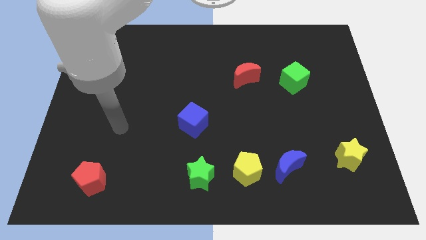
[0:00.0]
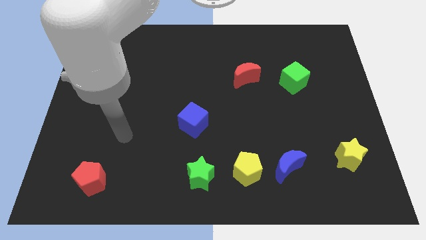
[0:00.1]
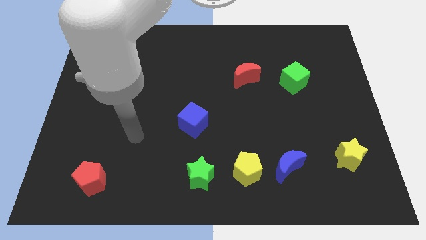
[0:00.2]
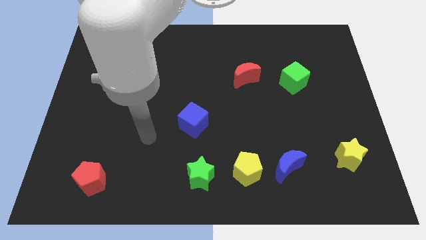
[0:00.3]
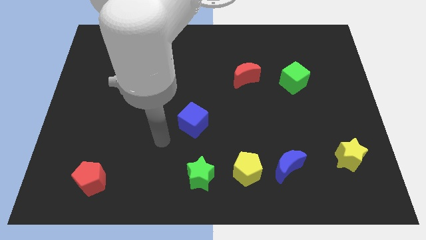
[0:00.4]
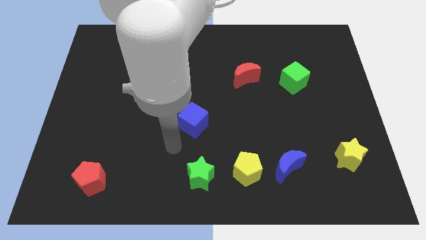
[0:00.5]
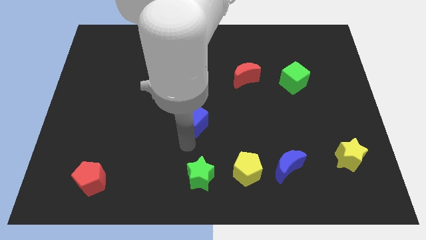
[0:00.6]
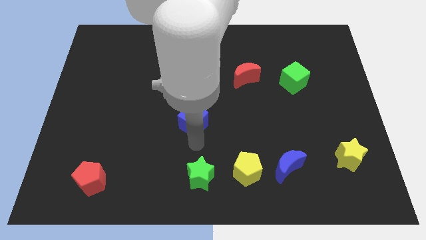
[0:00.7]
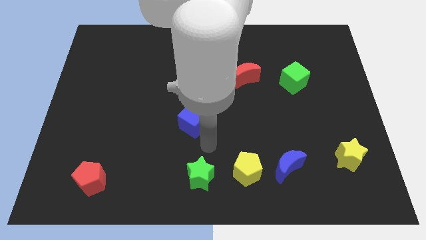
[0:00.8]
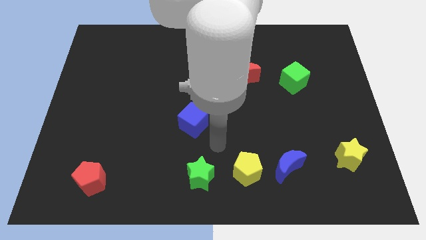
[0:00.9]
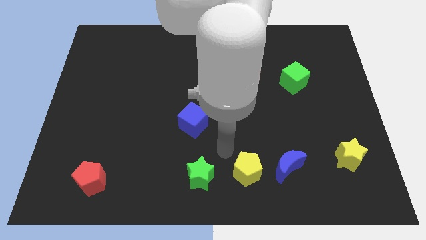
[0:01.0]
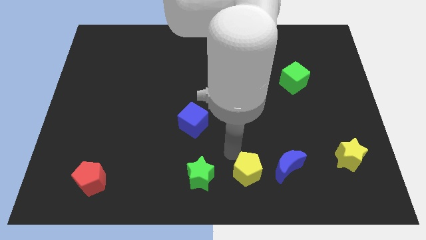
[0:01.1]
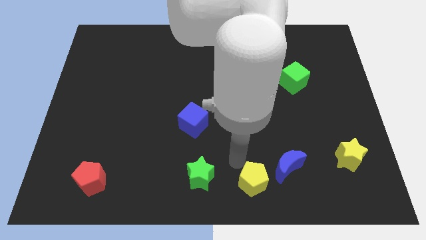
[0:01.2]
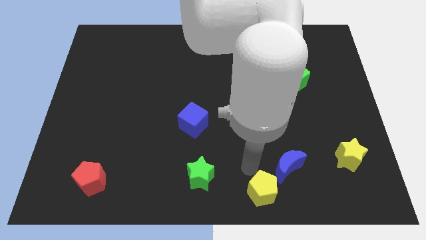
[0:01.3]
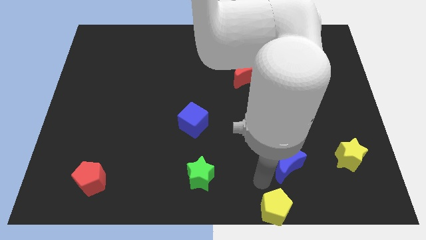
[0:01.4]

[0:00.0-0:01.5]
pull the blue moon apart from the yellow pentagon

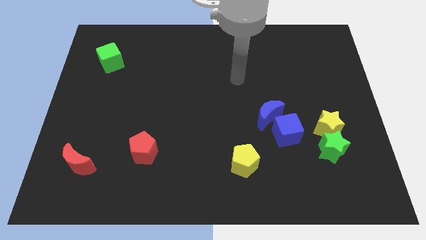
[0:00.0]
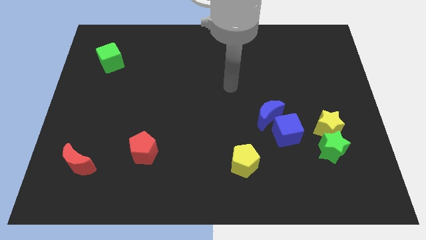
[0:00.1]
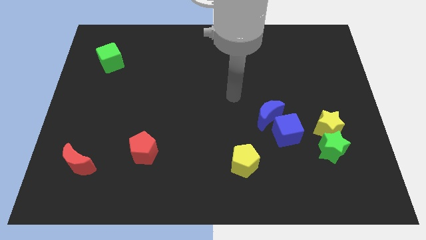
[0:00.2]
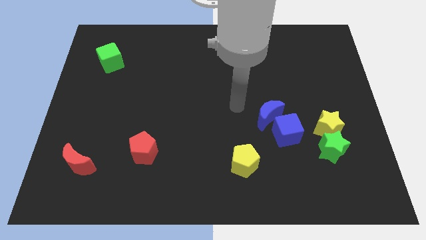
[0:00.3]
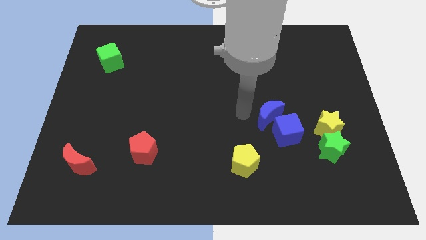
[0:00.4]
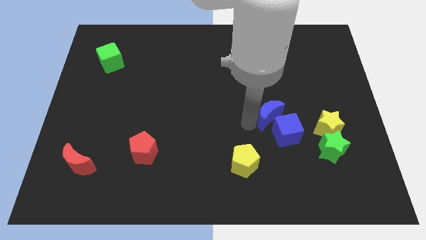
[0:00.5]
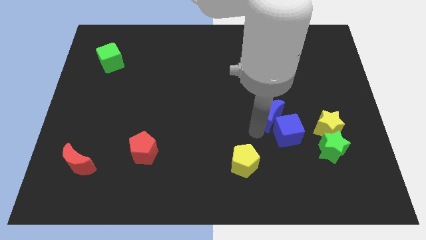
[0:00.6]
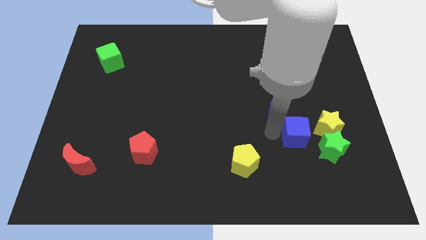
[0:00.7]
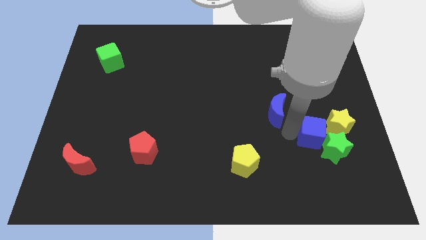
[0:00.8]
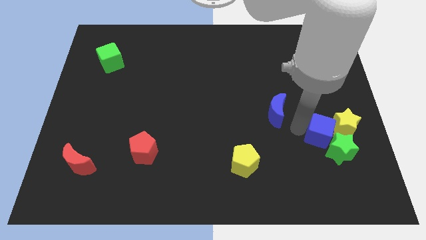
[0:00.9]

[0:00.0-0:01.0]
separate the blue moon from the blue cube

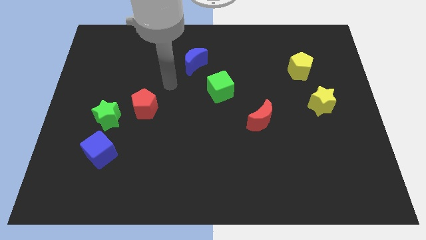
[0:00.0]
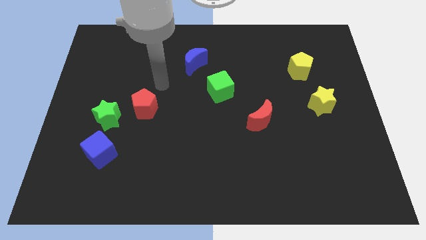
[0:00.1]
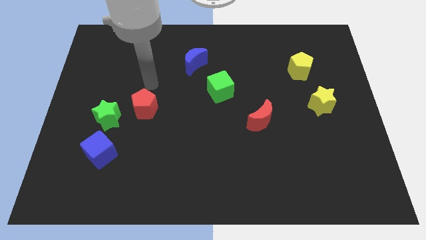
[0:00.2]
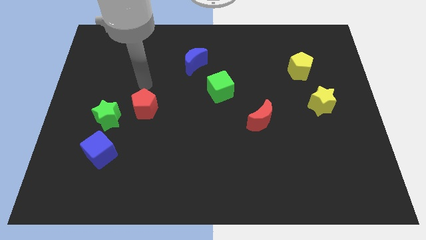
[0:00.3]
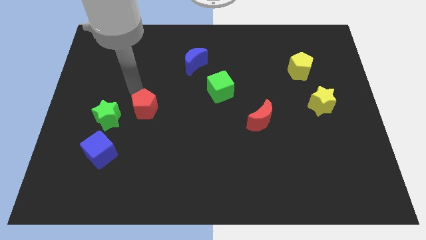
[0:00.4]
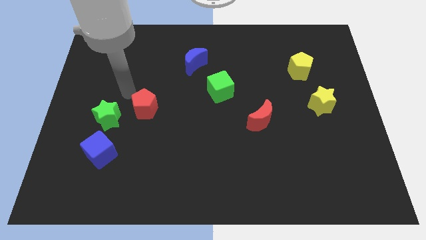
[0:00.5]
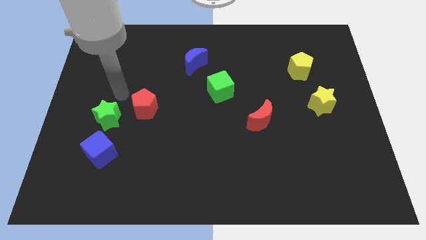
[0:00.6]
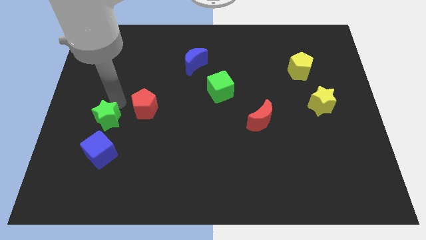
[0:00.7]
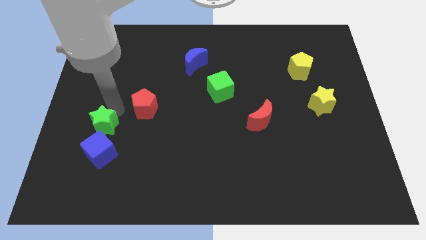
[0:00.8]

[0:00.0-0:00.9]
separate the red pentagon from the green star

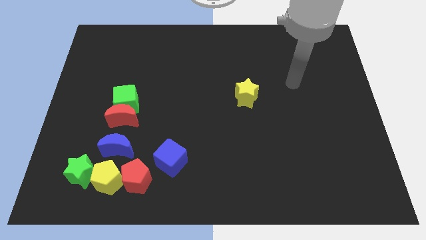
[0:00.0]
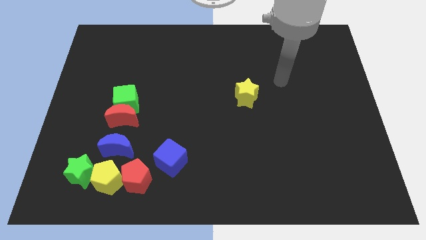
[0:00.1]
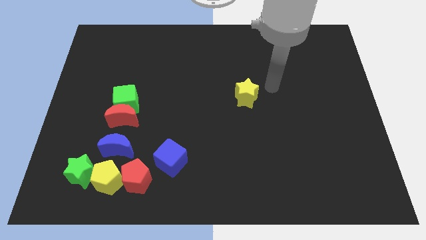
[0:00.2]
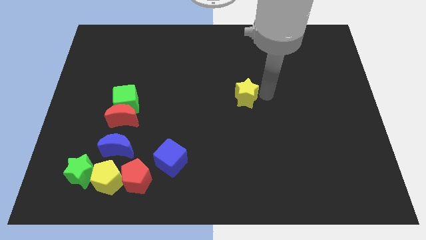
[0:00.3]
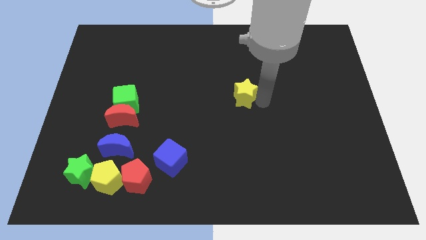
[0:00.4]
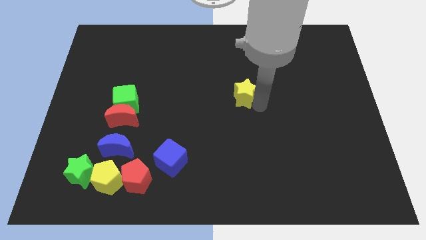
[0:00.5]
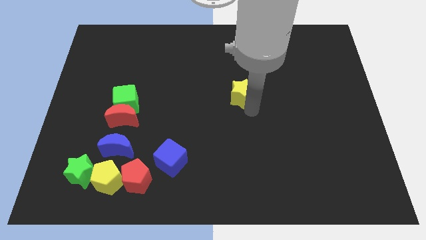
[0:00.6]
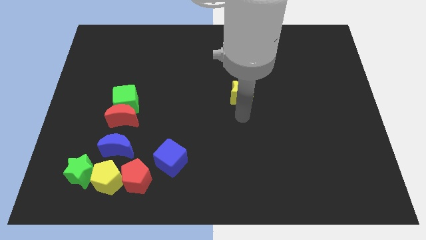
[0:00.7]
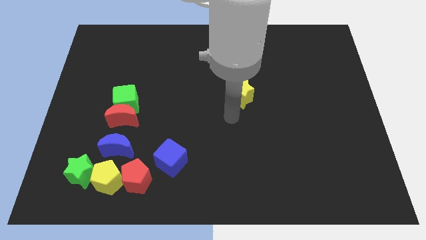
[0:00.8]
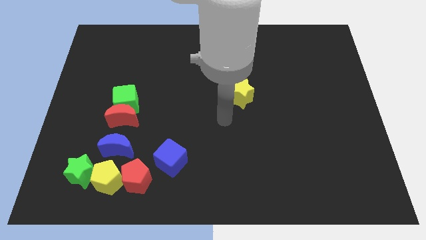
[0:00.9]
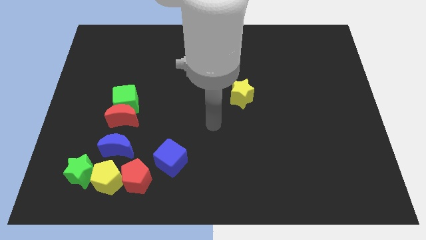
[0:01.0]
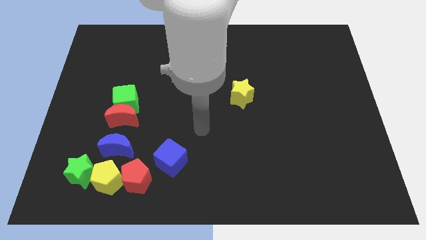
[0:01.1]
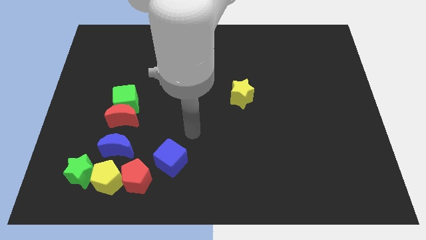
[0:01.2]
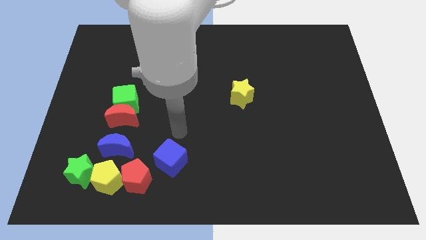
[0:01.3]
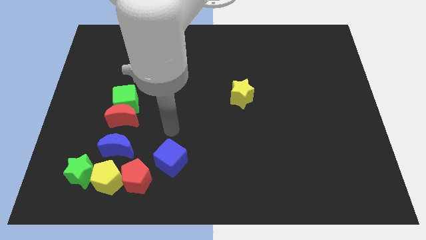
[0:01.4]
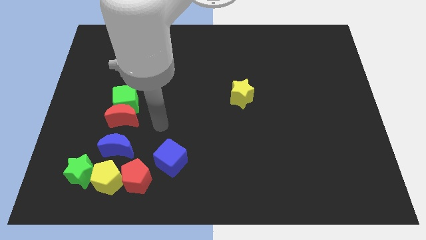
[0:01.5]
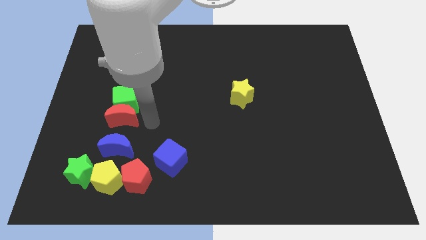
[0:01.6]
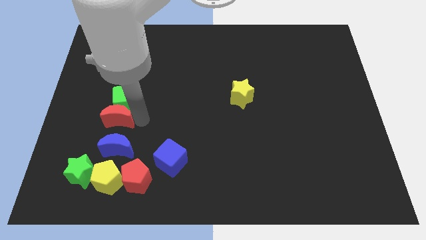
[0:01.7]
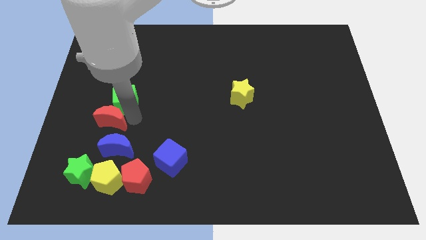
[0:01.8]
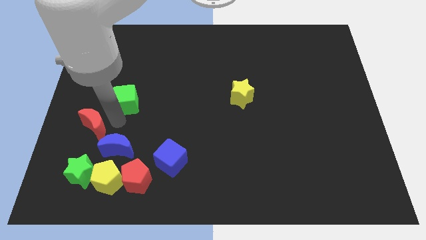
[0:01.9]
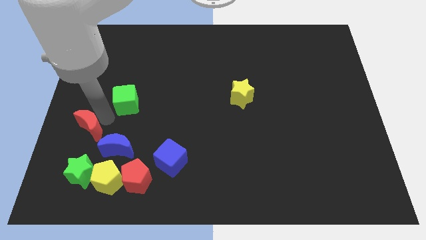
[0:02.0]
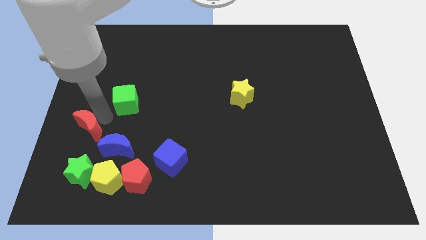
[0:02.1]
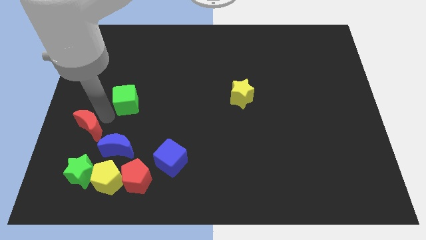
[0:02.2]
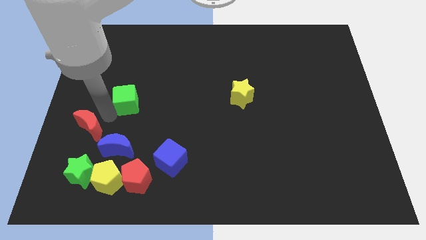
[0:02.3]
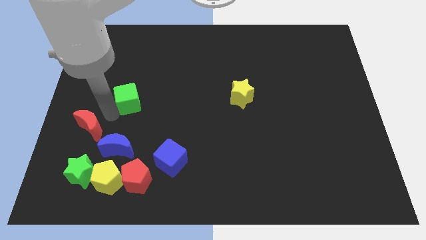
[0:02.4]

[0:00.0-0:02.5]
separate the green cube from the red moon

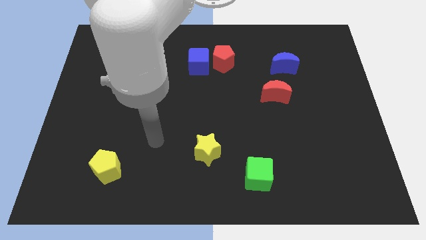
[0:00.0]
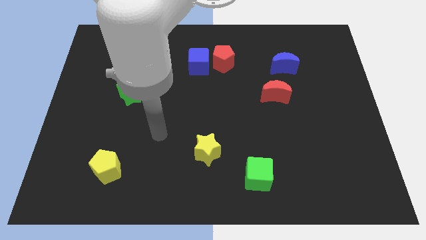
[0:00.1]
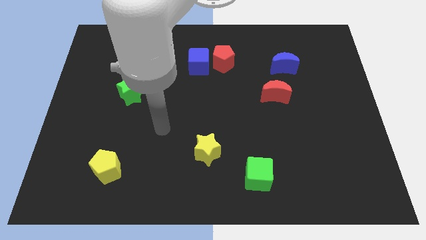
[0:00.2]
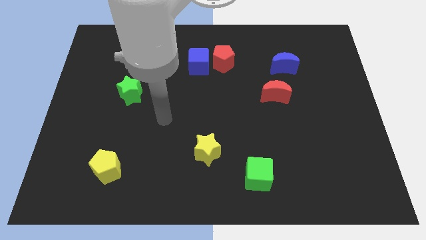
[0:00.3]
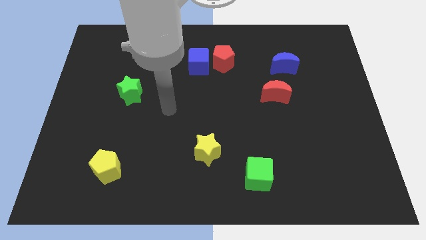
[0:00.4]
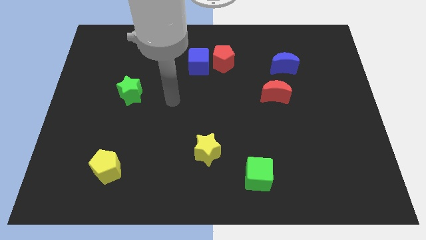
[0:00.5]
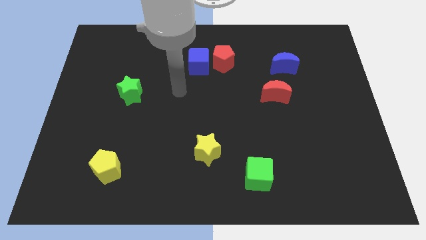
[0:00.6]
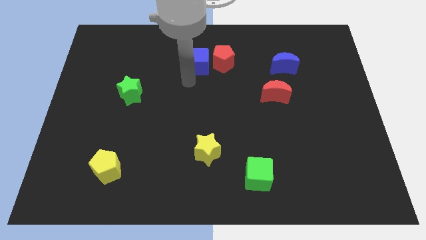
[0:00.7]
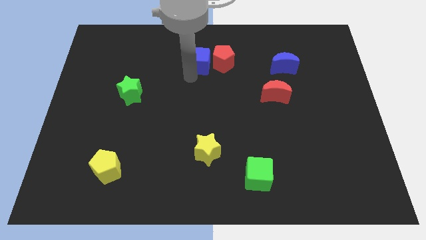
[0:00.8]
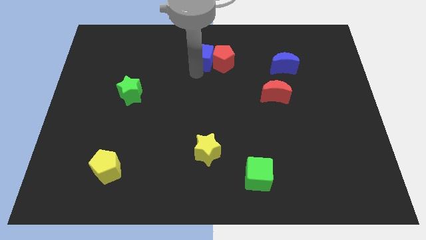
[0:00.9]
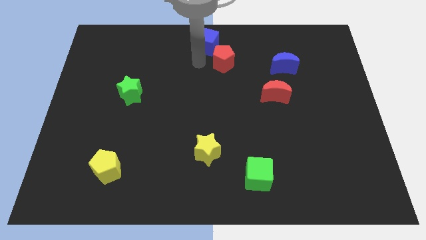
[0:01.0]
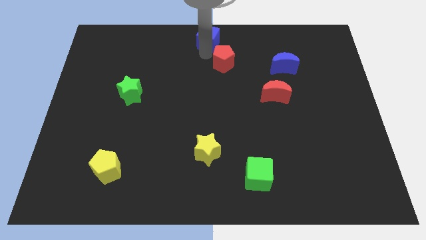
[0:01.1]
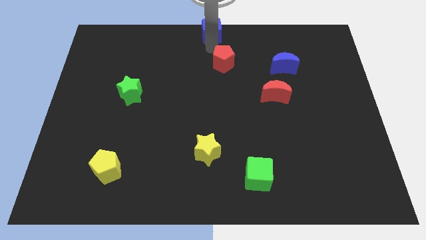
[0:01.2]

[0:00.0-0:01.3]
separate the red pentagon from the blue cube

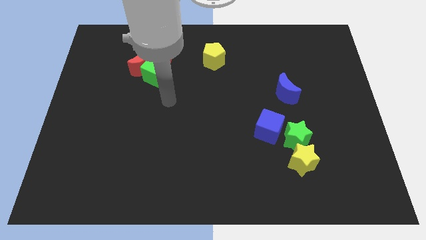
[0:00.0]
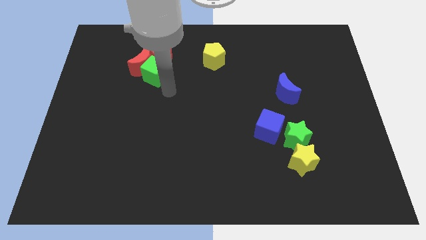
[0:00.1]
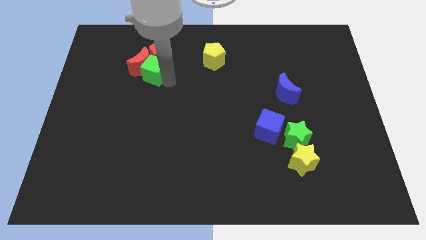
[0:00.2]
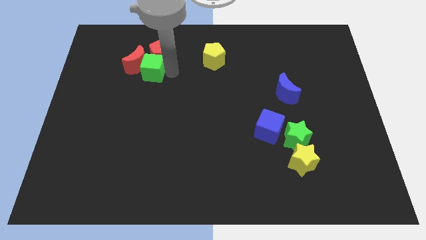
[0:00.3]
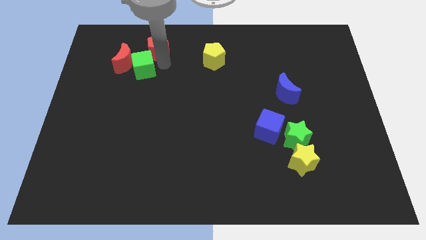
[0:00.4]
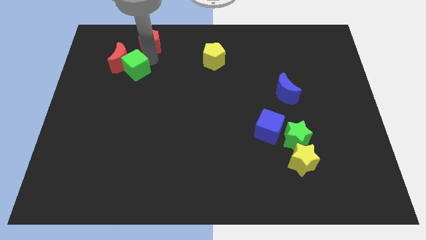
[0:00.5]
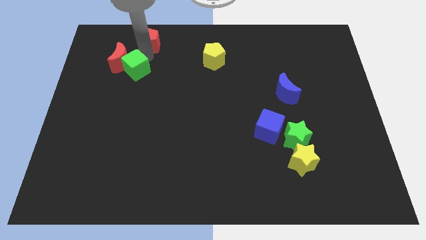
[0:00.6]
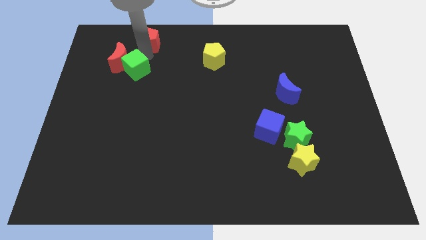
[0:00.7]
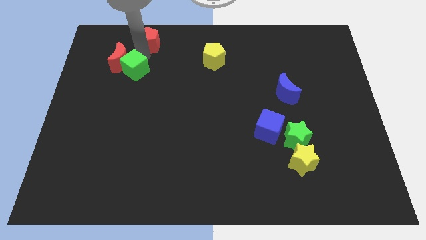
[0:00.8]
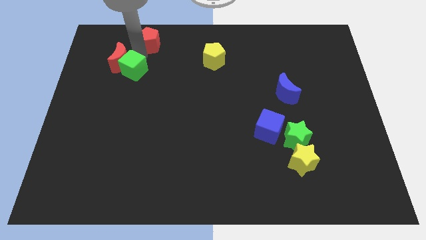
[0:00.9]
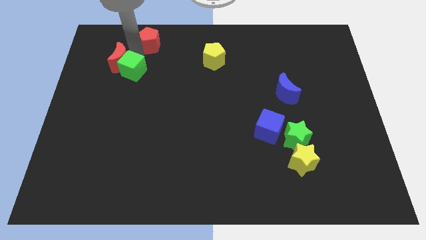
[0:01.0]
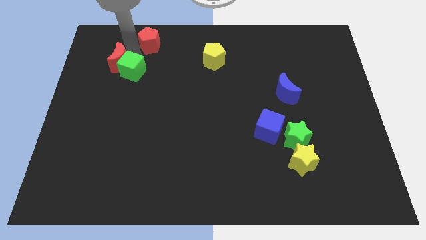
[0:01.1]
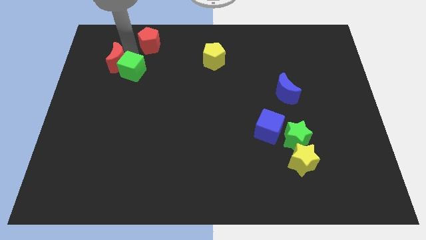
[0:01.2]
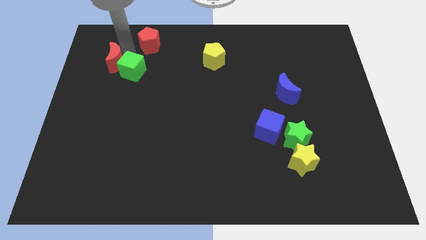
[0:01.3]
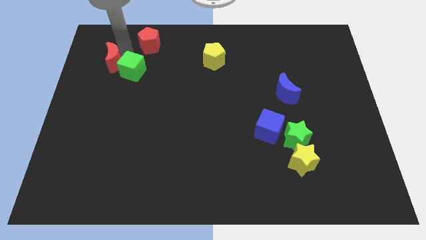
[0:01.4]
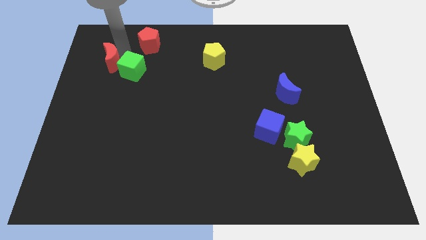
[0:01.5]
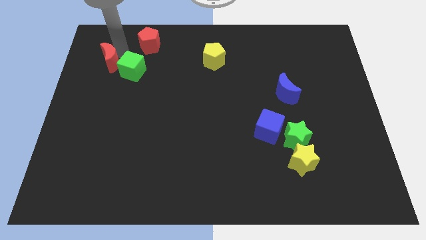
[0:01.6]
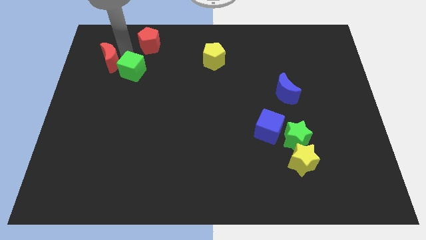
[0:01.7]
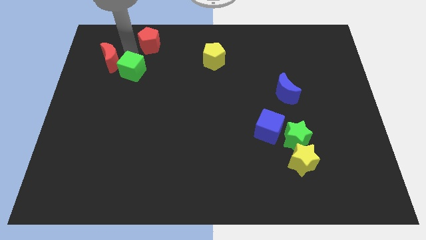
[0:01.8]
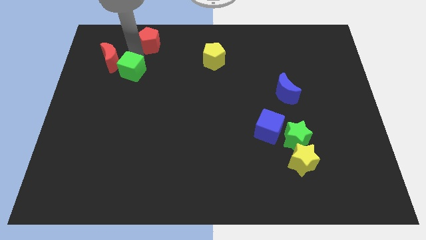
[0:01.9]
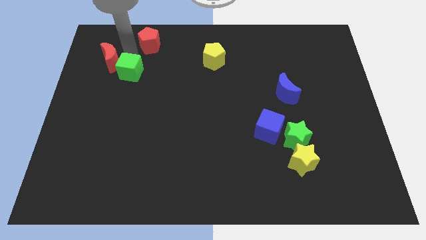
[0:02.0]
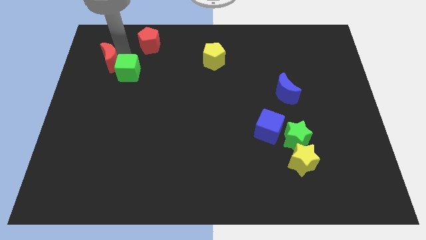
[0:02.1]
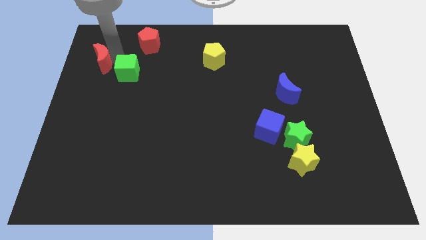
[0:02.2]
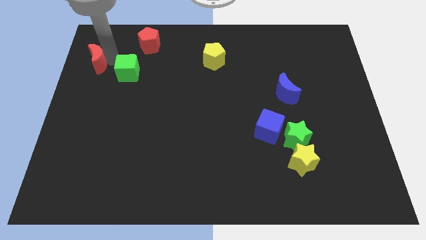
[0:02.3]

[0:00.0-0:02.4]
pull the red moon apart from the green cube and red pentagon
